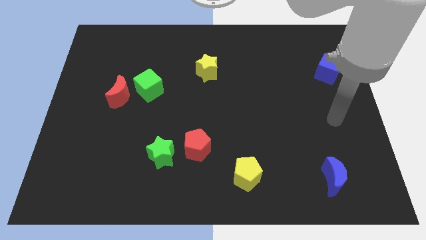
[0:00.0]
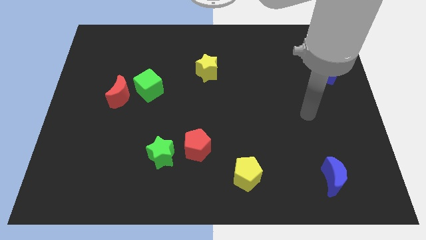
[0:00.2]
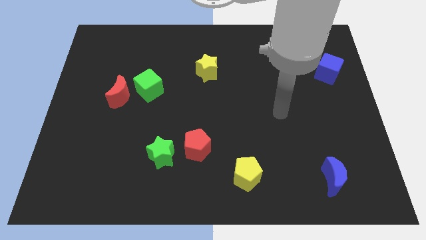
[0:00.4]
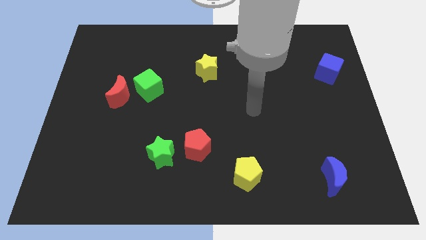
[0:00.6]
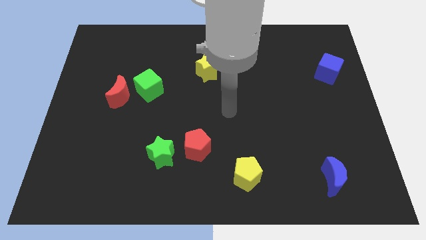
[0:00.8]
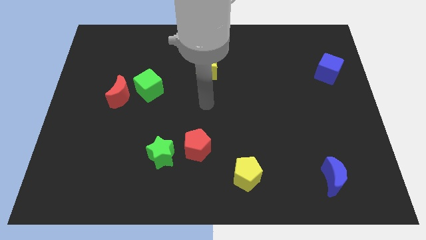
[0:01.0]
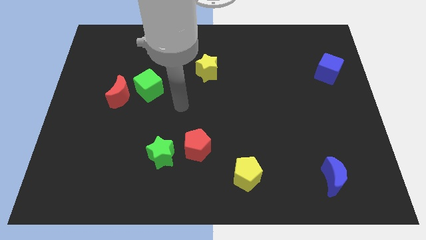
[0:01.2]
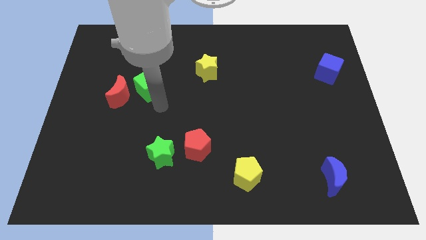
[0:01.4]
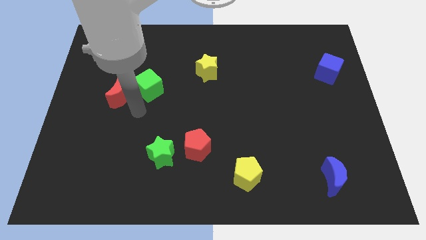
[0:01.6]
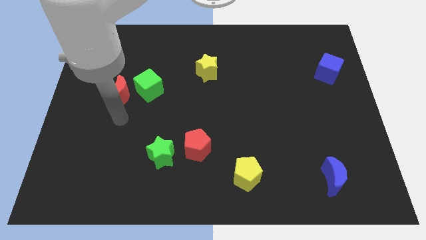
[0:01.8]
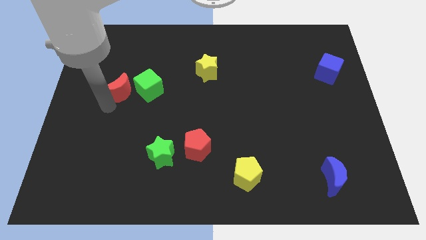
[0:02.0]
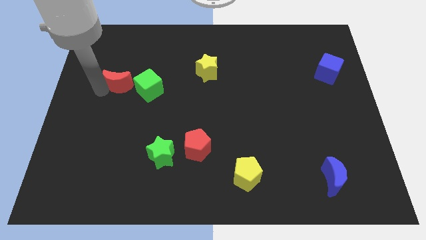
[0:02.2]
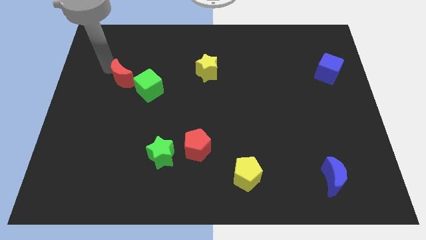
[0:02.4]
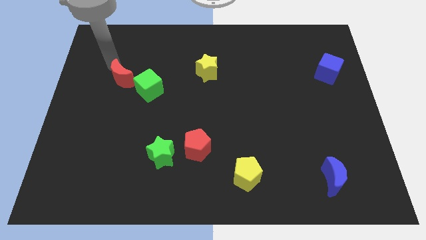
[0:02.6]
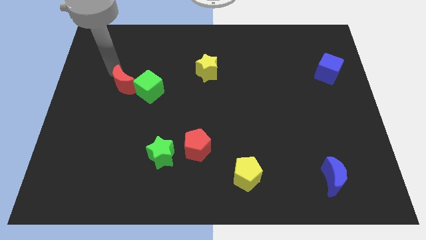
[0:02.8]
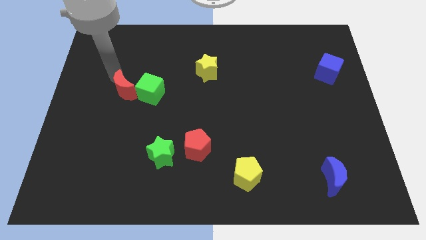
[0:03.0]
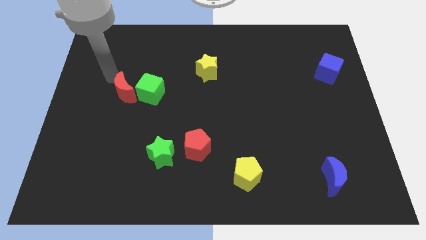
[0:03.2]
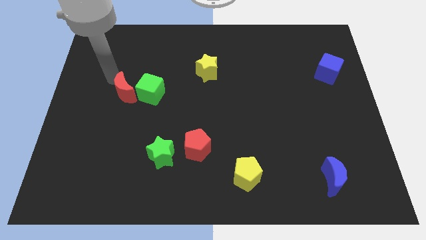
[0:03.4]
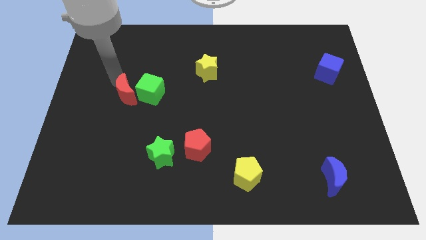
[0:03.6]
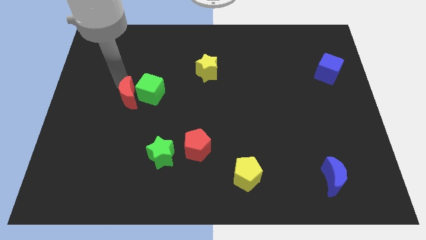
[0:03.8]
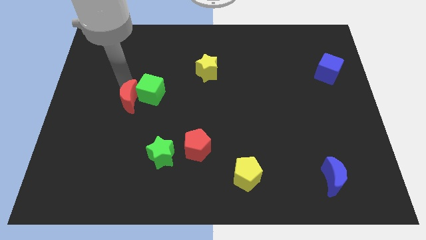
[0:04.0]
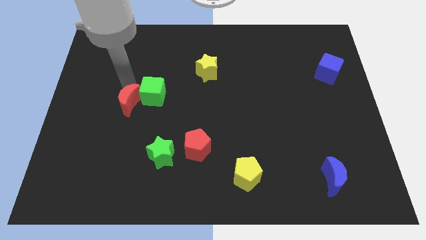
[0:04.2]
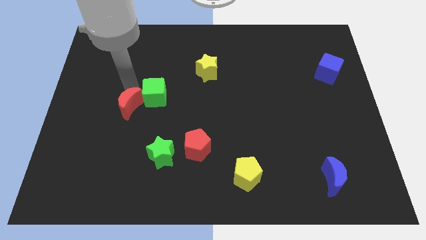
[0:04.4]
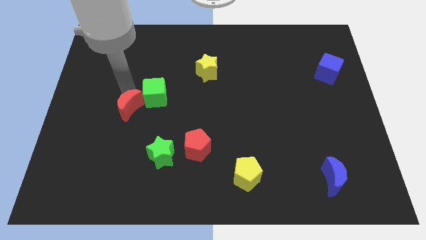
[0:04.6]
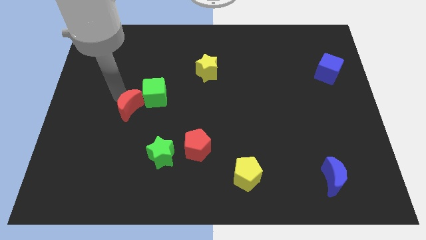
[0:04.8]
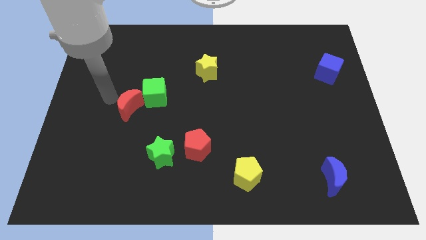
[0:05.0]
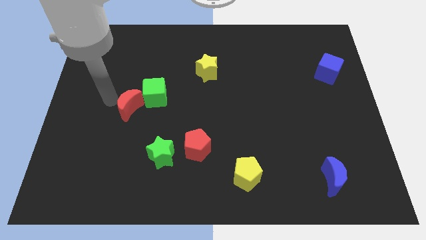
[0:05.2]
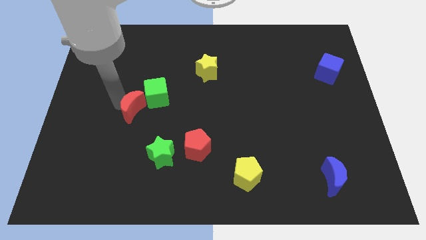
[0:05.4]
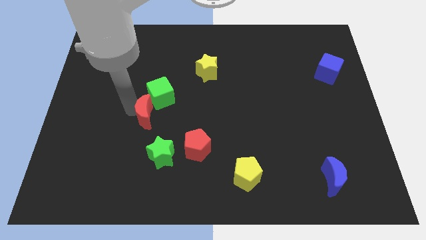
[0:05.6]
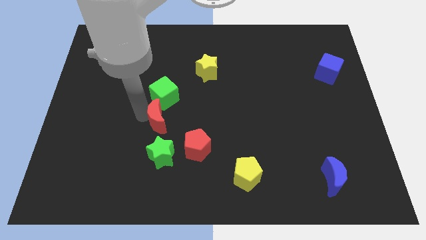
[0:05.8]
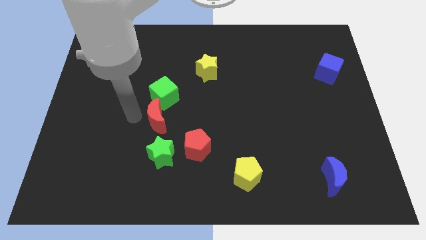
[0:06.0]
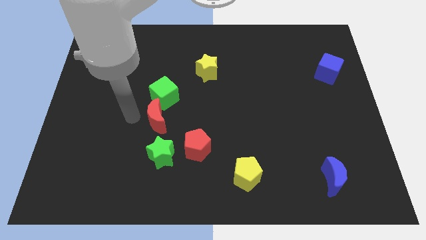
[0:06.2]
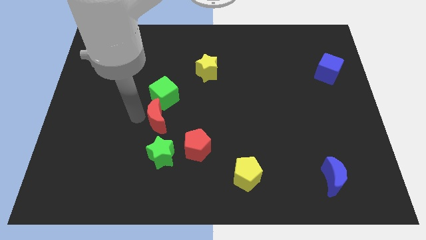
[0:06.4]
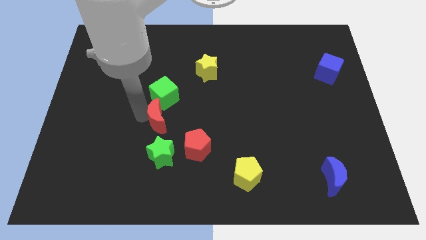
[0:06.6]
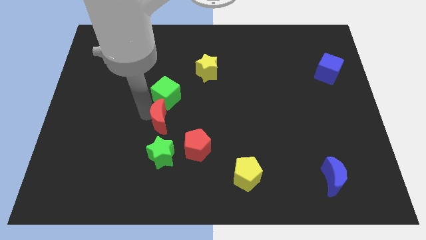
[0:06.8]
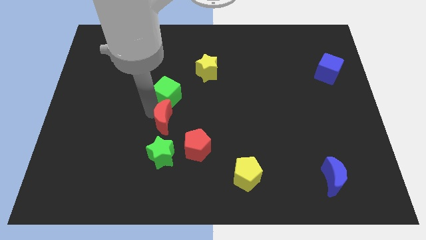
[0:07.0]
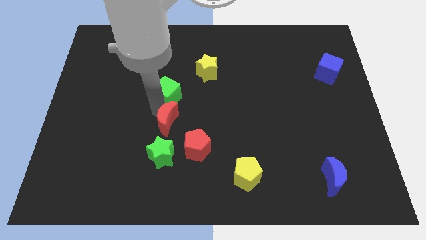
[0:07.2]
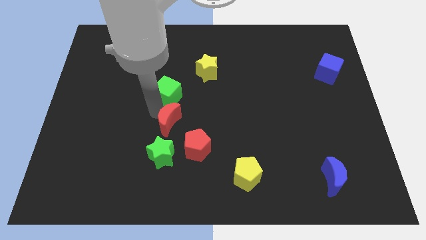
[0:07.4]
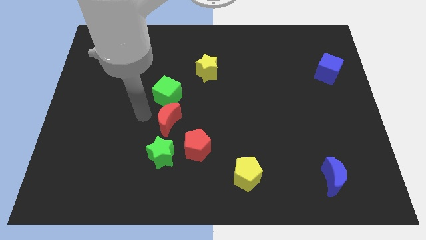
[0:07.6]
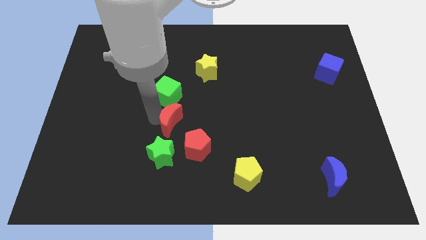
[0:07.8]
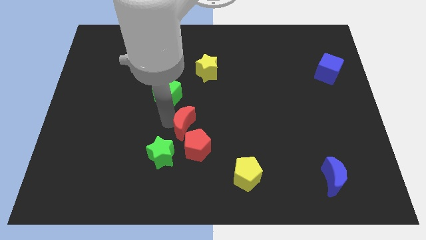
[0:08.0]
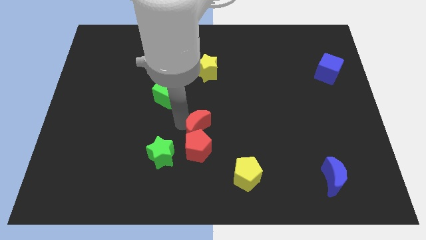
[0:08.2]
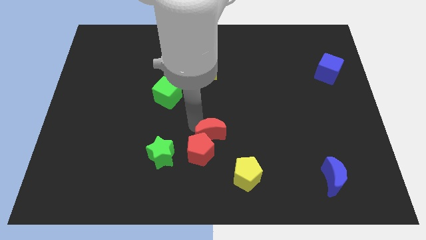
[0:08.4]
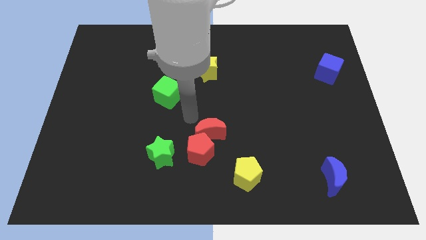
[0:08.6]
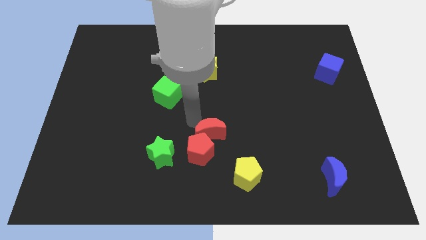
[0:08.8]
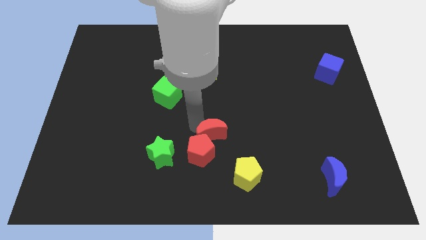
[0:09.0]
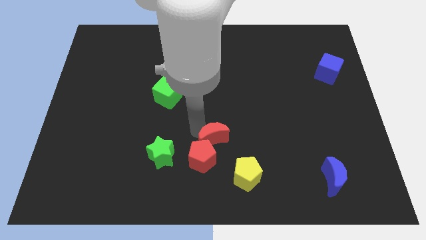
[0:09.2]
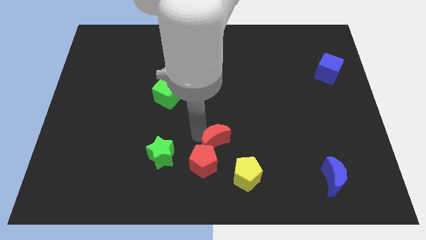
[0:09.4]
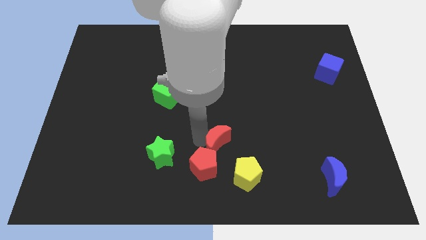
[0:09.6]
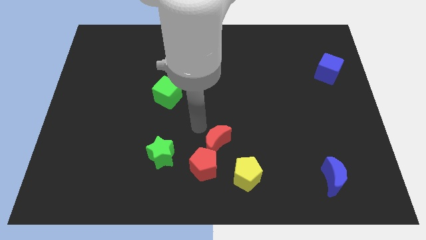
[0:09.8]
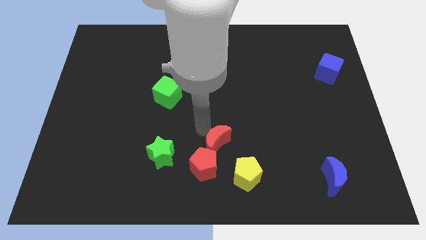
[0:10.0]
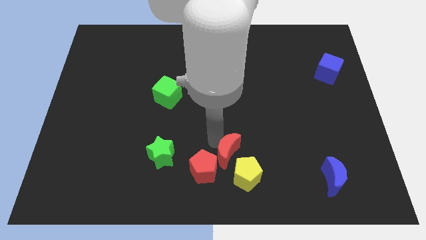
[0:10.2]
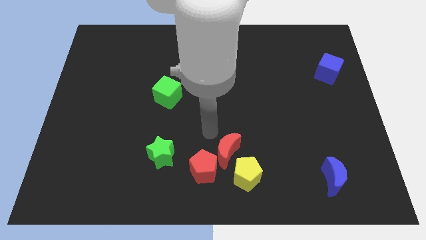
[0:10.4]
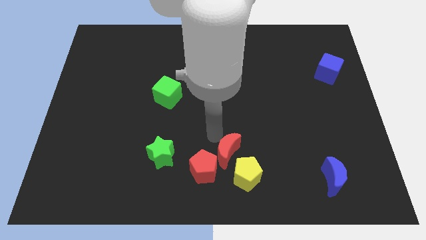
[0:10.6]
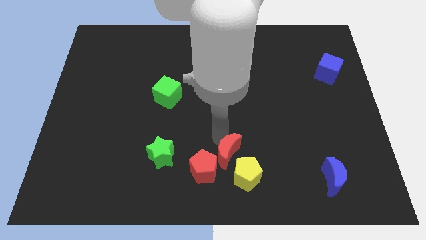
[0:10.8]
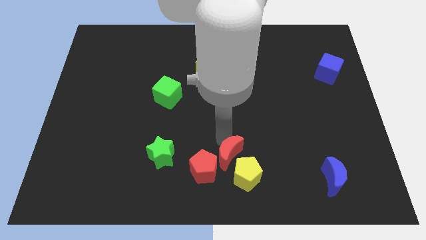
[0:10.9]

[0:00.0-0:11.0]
push the red moon next to the yellow pentagon

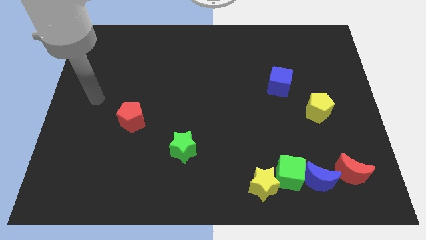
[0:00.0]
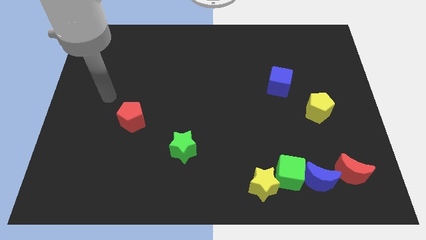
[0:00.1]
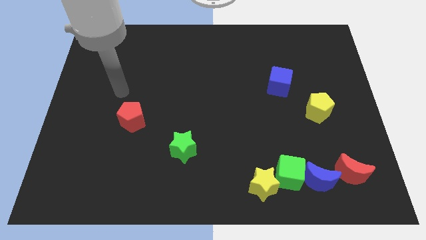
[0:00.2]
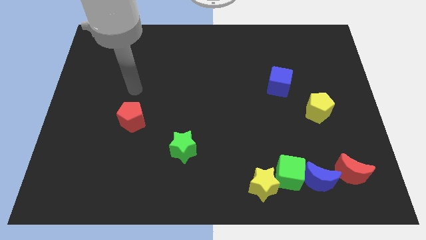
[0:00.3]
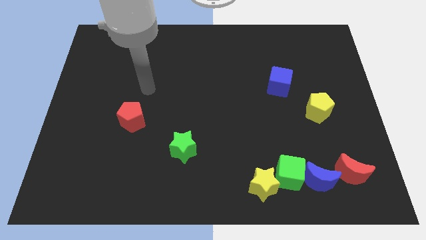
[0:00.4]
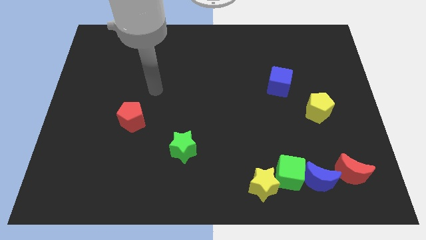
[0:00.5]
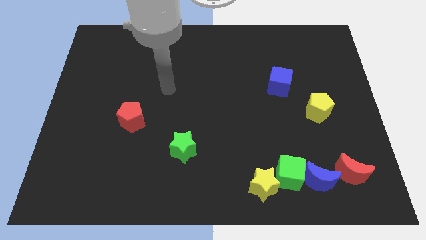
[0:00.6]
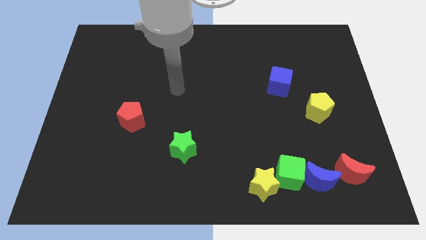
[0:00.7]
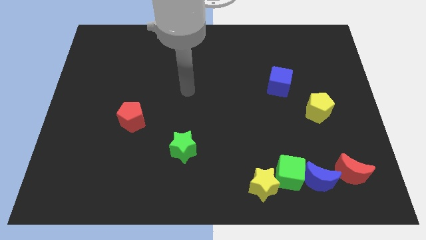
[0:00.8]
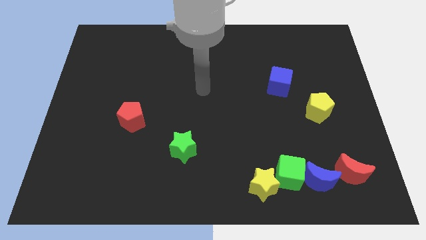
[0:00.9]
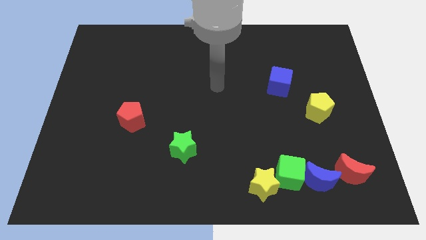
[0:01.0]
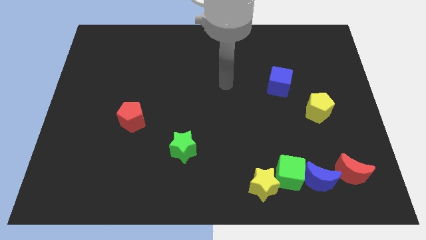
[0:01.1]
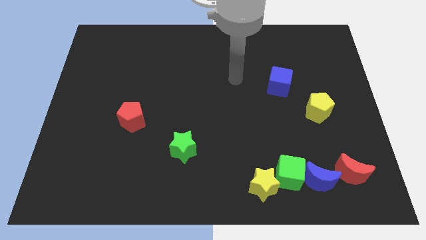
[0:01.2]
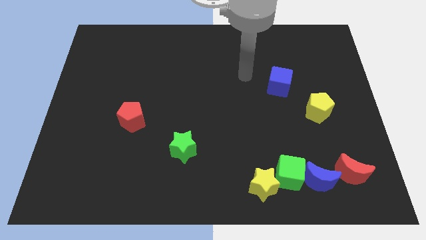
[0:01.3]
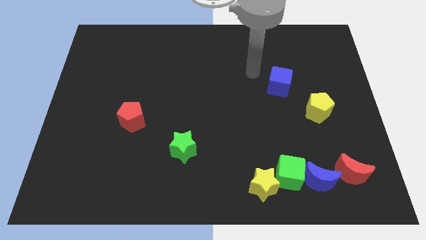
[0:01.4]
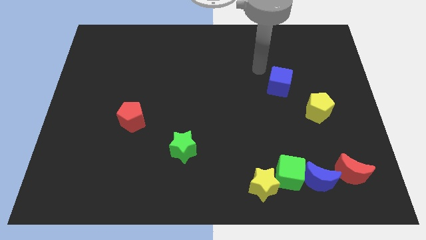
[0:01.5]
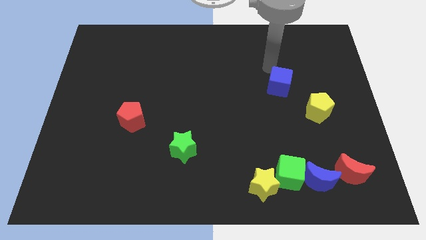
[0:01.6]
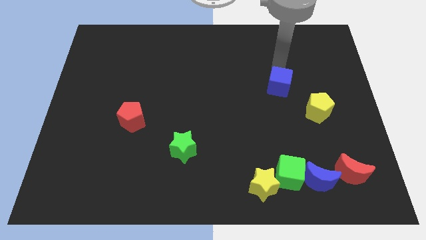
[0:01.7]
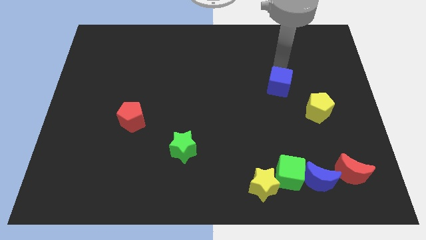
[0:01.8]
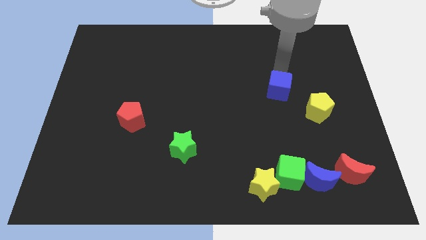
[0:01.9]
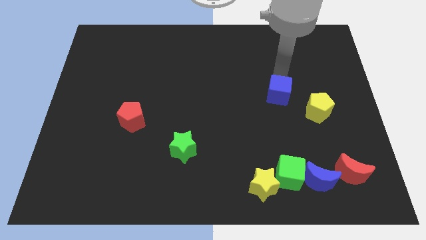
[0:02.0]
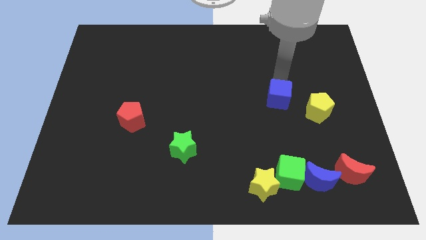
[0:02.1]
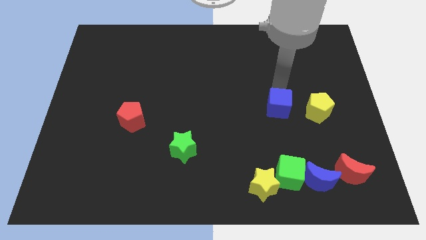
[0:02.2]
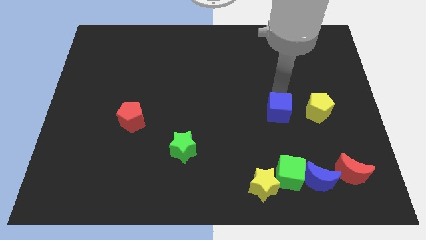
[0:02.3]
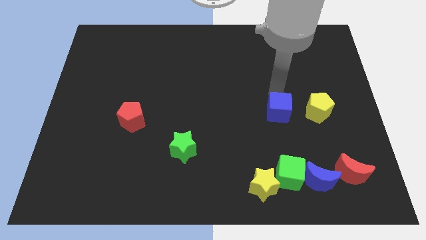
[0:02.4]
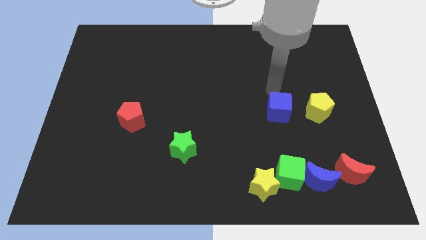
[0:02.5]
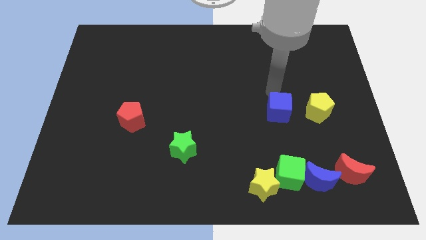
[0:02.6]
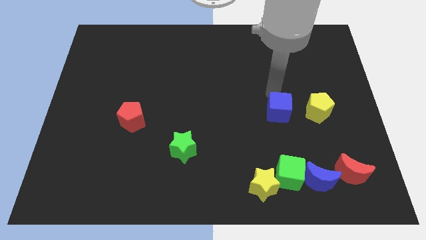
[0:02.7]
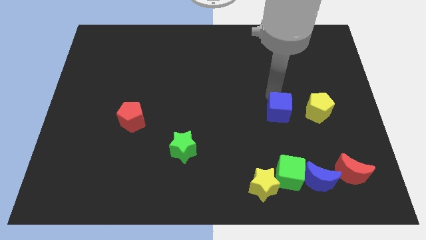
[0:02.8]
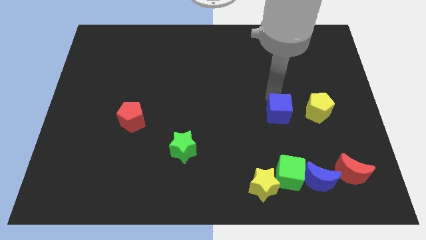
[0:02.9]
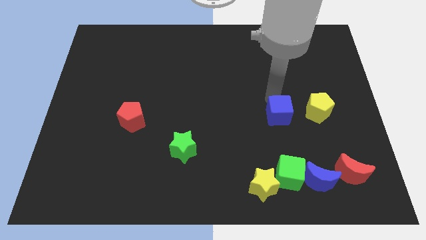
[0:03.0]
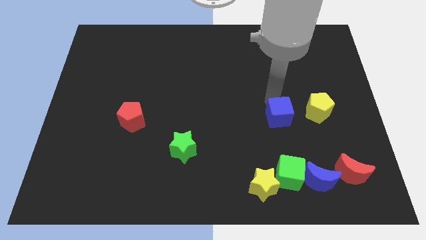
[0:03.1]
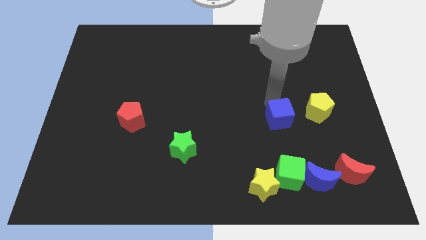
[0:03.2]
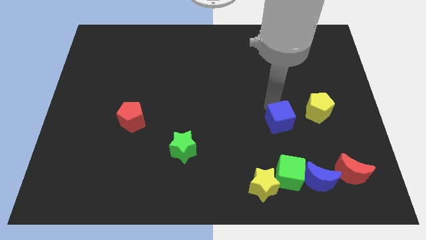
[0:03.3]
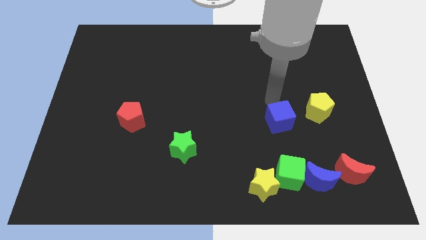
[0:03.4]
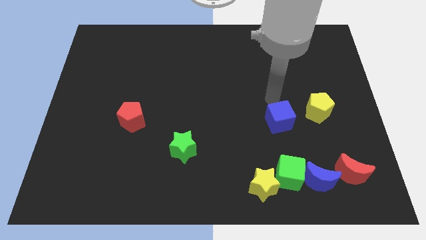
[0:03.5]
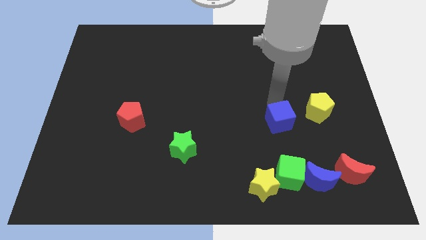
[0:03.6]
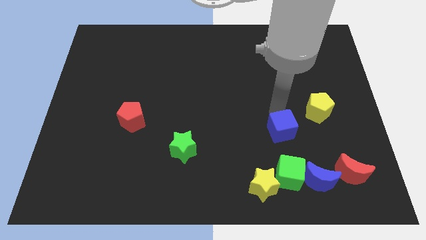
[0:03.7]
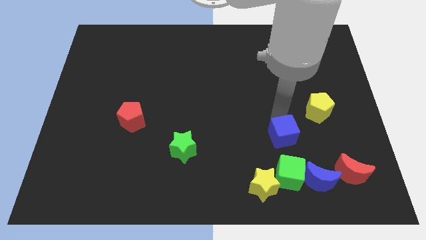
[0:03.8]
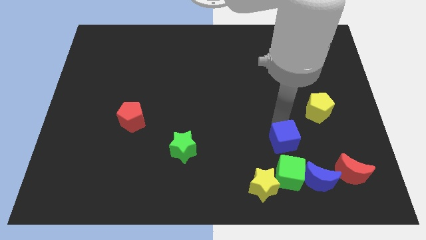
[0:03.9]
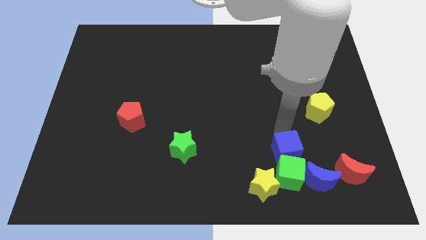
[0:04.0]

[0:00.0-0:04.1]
put the blue cube next to the green cube
